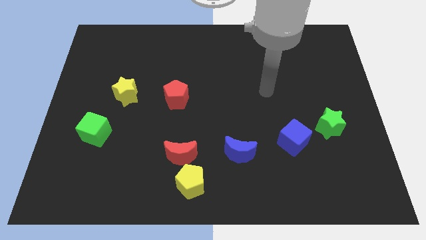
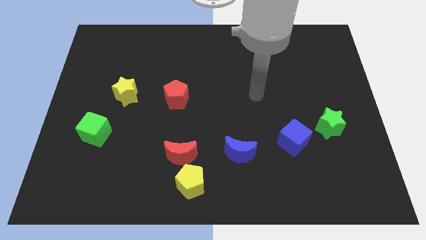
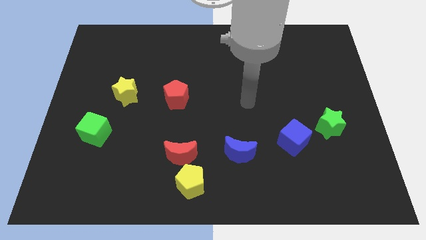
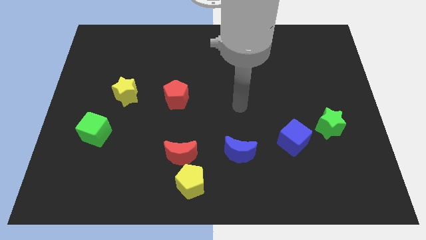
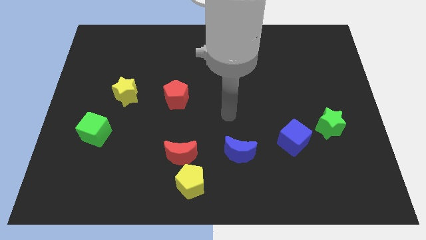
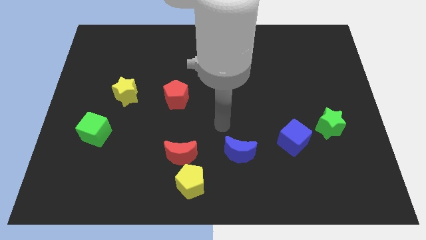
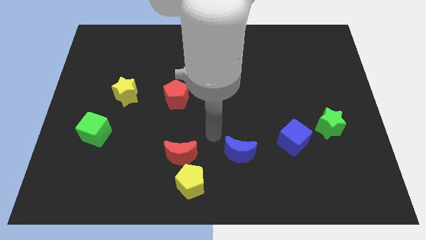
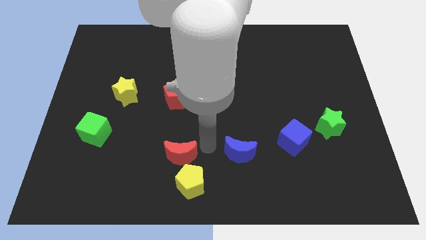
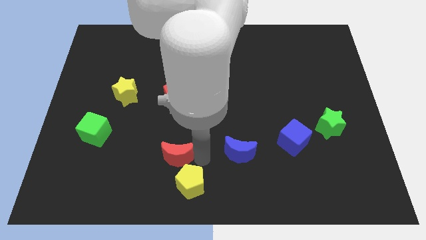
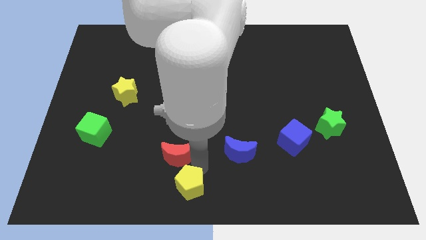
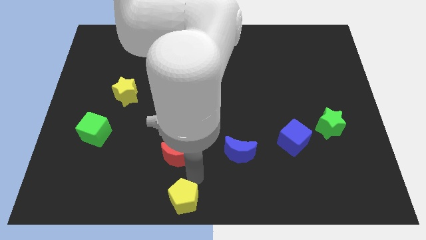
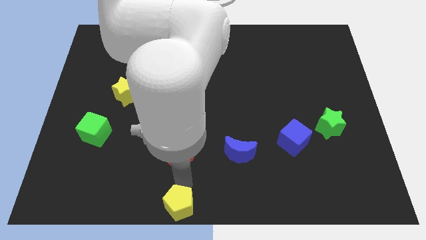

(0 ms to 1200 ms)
separate the red moon from the yellow pentagon

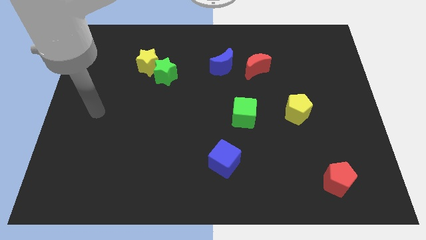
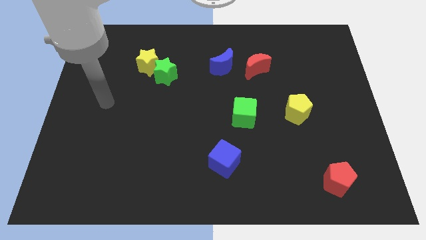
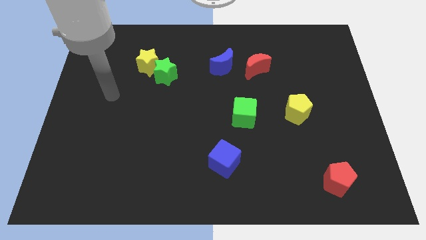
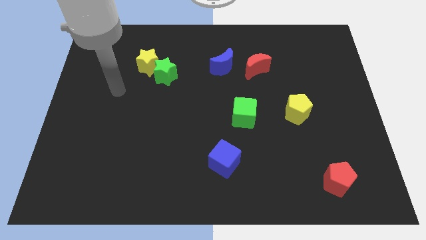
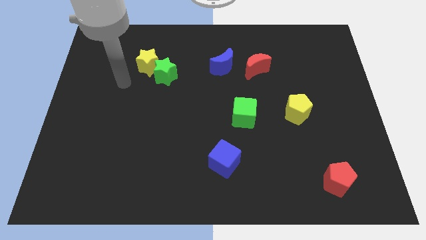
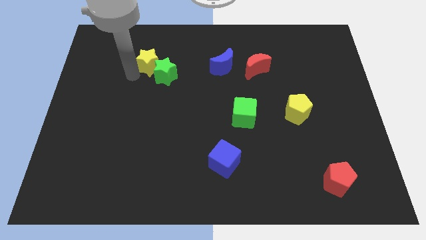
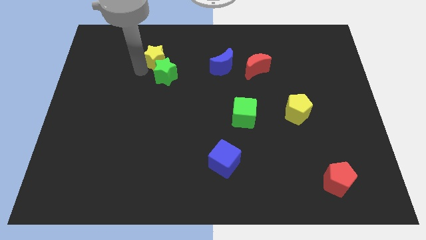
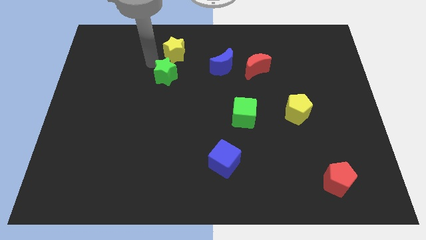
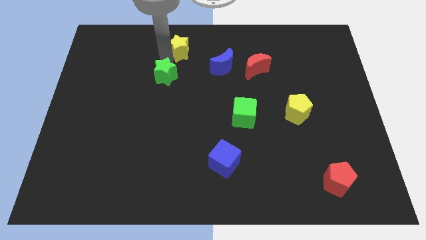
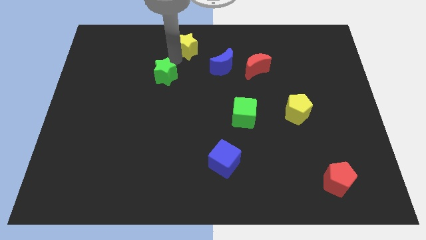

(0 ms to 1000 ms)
move the green star away from the yellow star

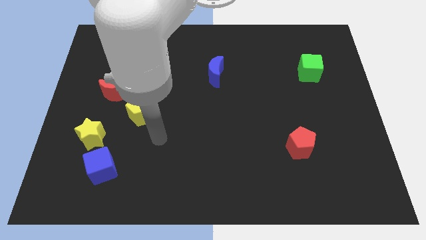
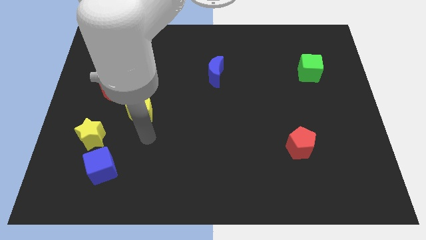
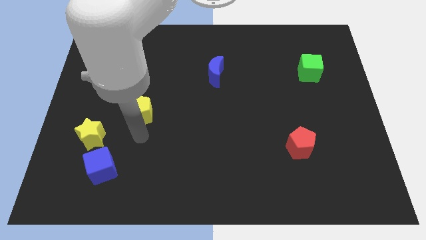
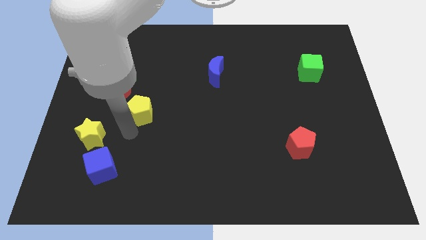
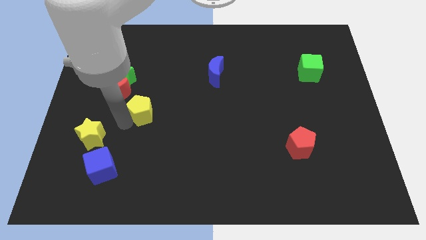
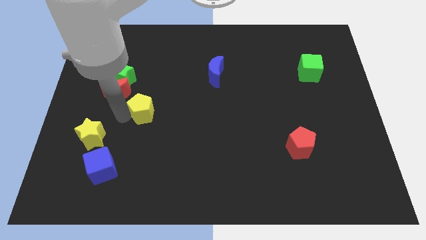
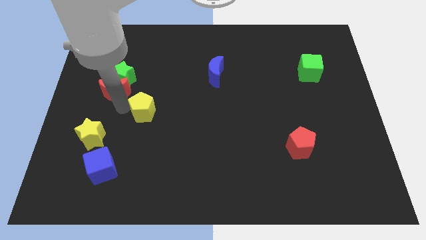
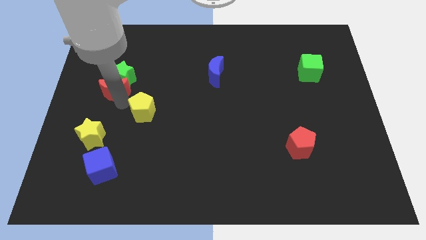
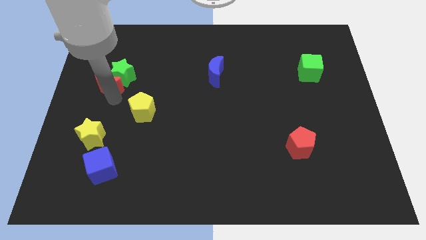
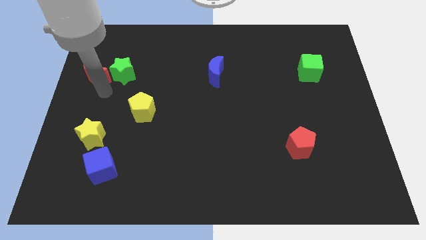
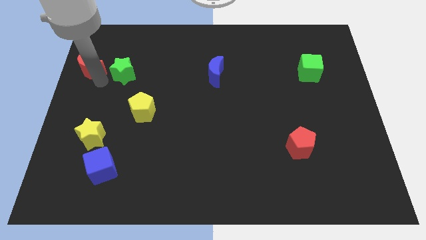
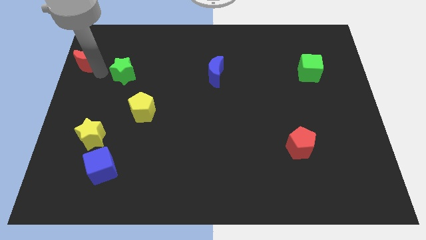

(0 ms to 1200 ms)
separate the green star from the red moon

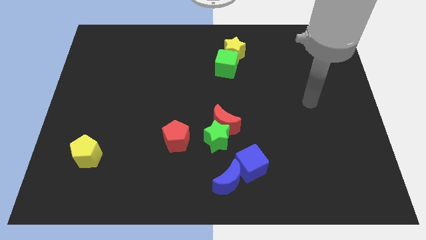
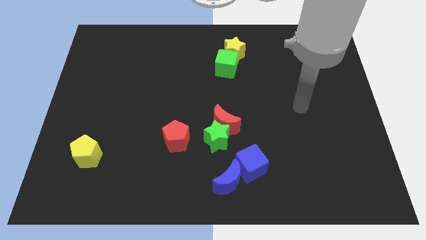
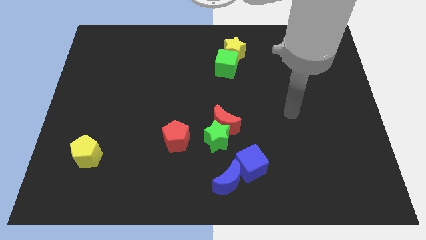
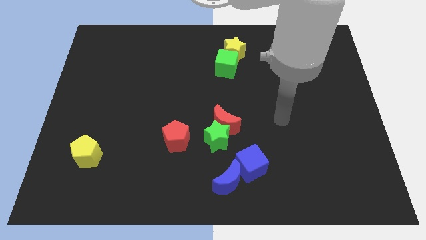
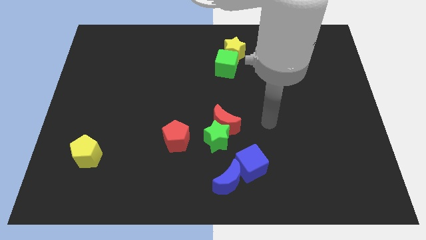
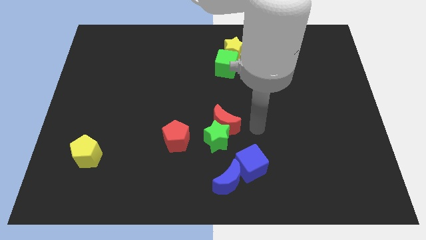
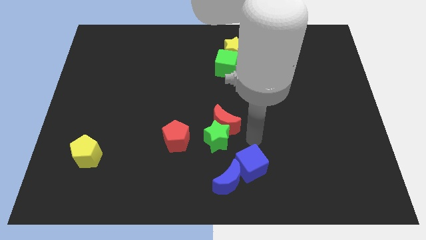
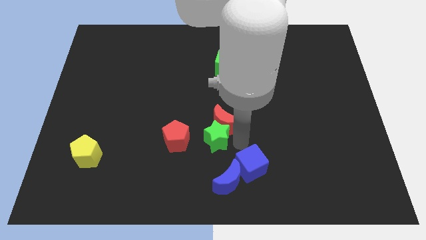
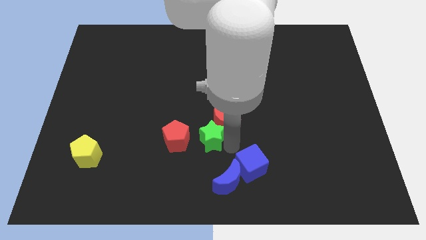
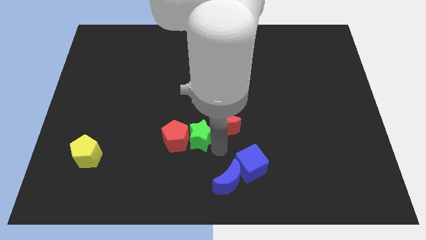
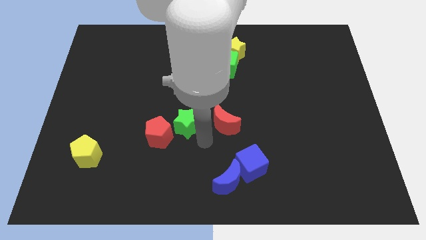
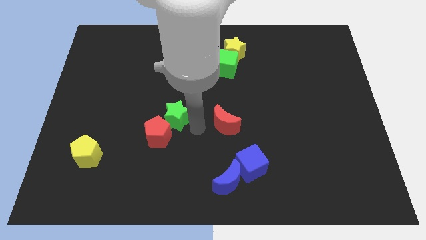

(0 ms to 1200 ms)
move the red moon away from the green star

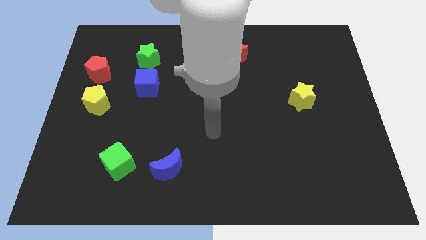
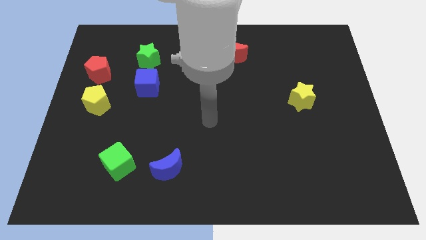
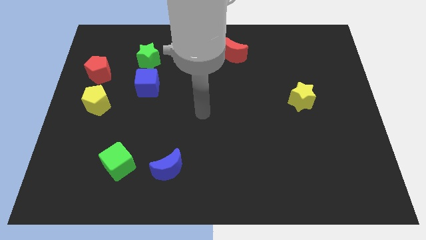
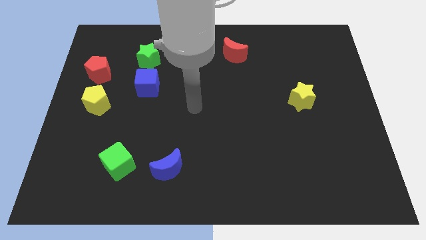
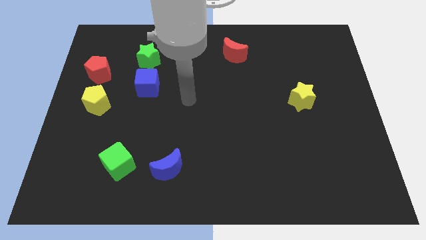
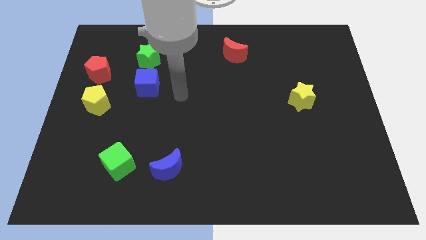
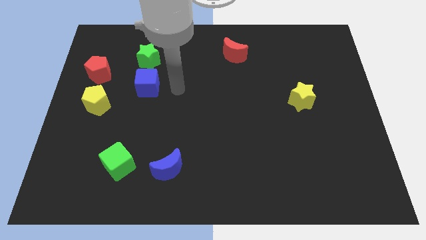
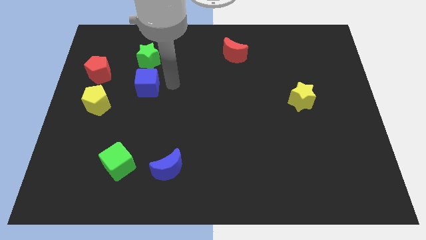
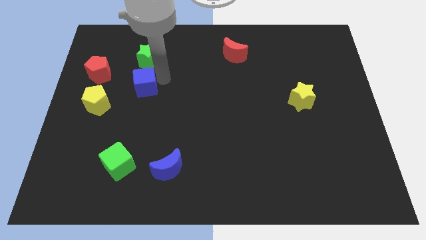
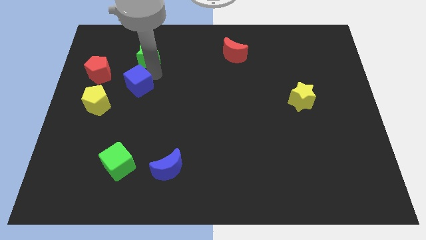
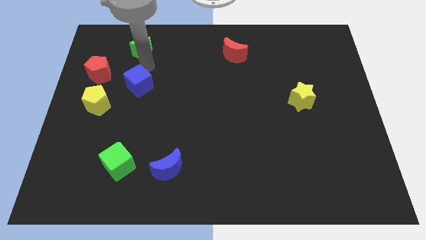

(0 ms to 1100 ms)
separate the blue cube from the green star

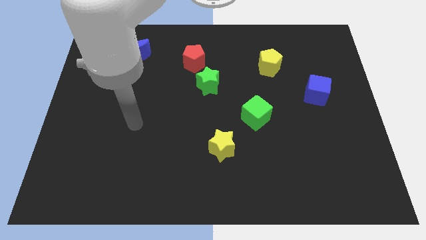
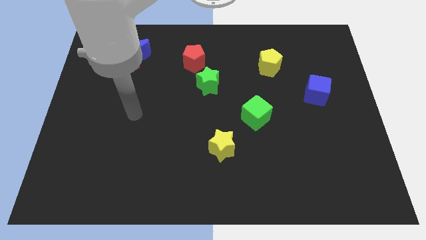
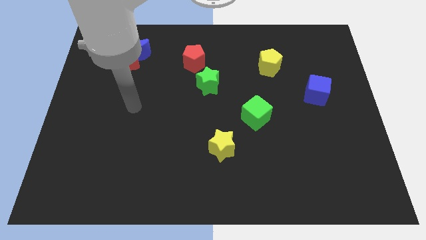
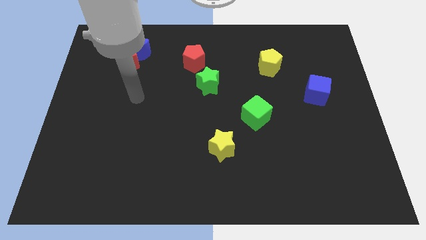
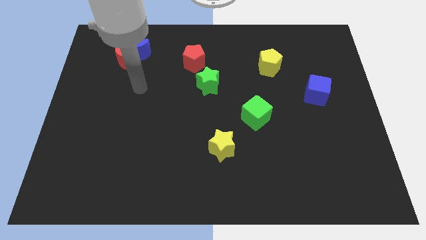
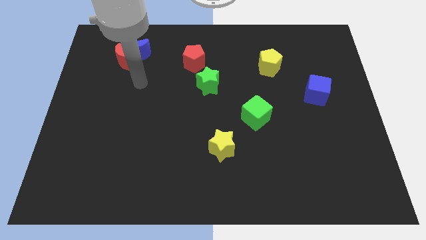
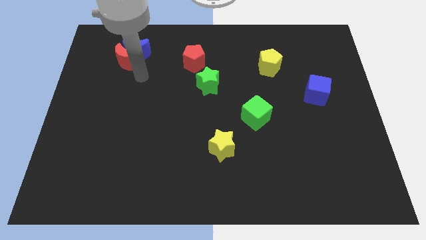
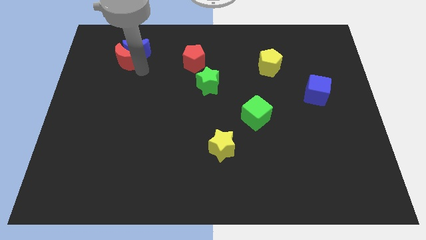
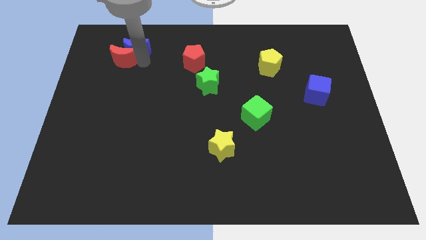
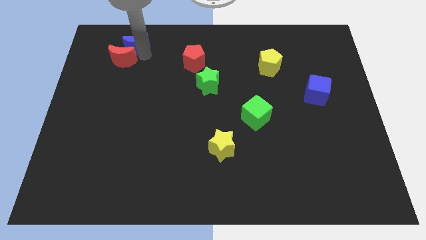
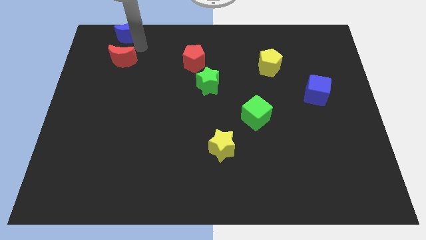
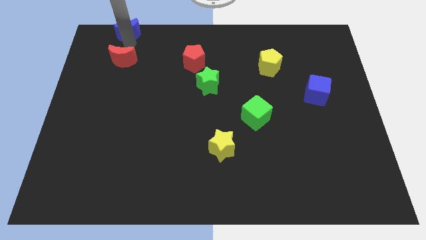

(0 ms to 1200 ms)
pull the red moon apart from the blue moon

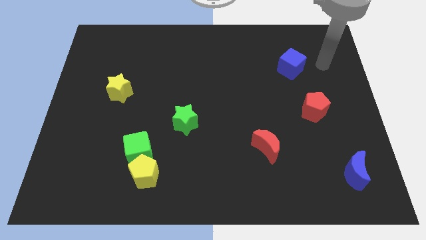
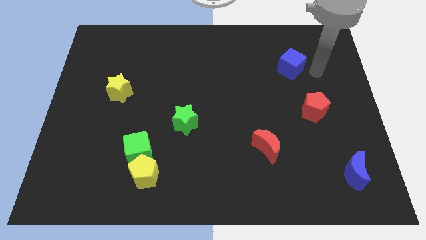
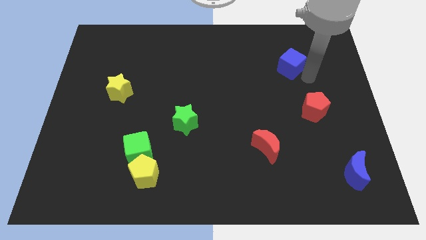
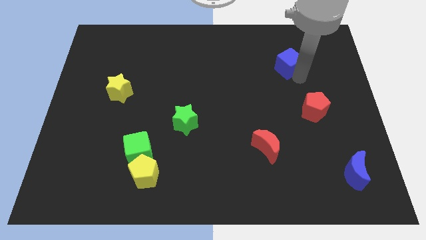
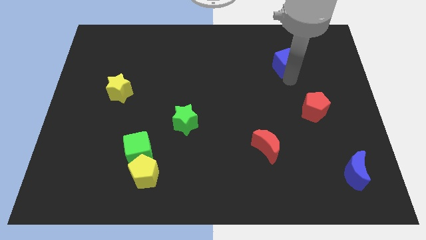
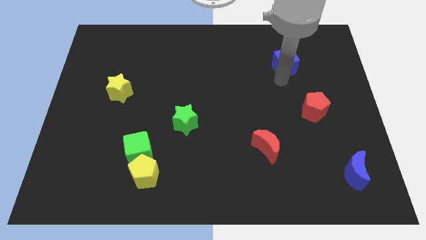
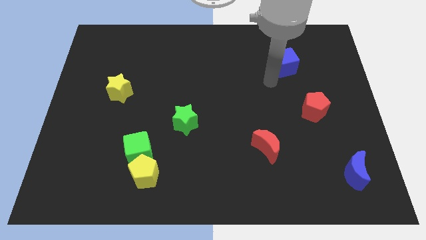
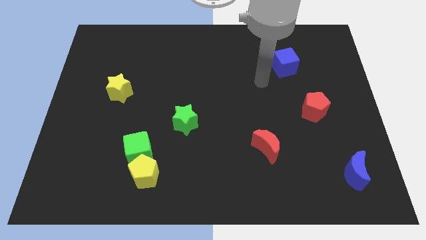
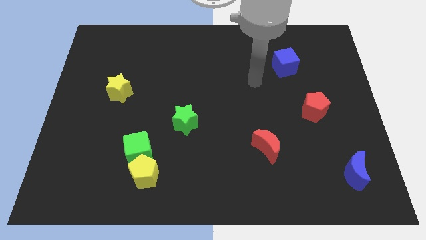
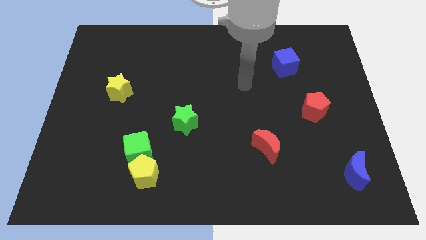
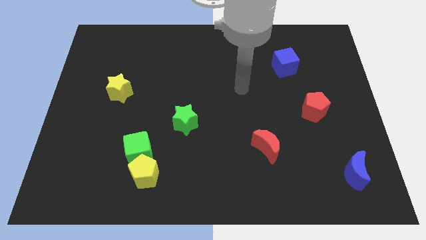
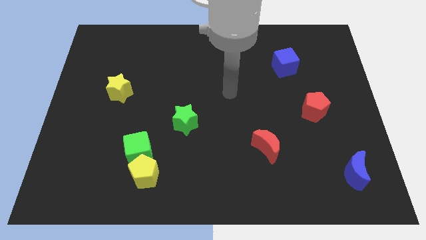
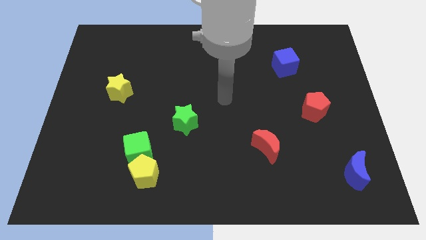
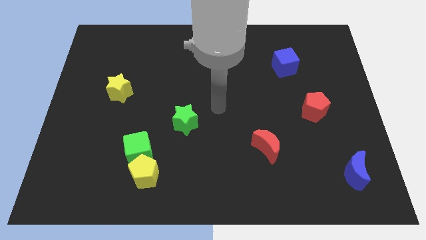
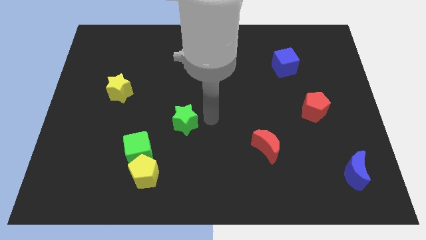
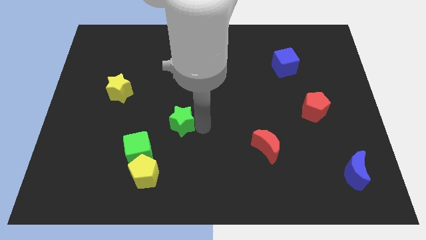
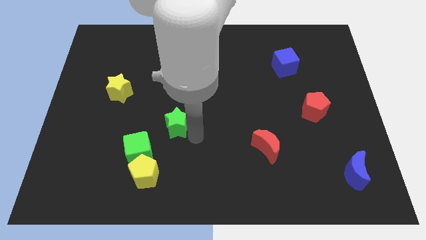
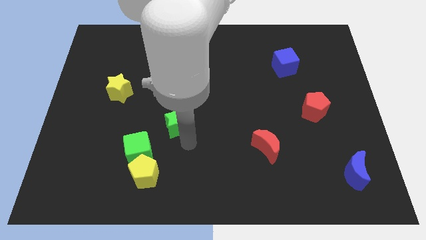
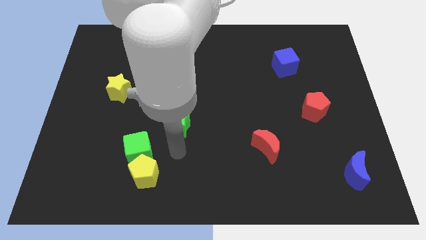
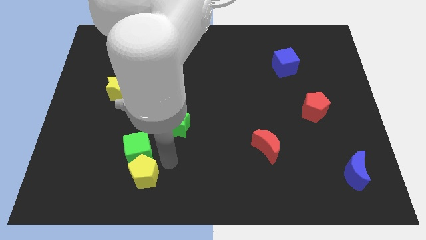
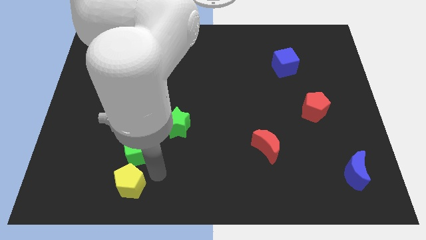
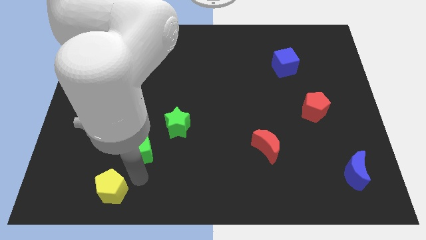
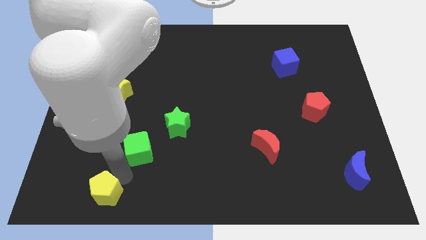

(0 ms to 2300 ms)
separate the green cube from the yellow pentagon

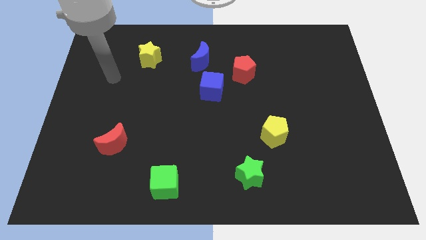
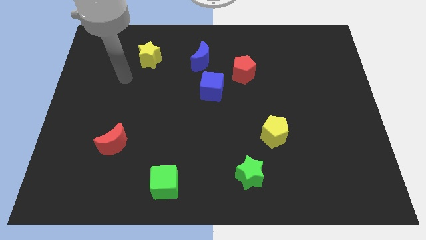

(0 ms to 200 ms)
pull the red pentagon apart from the blue cube
